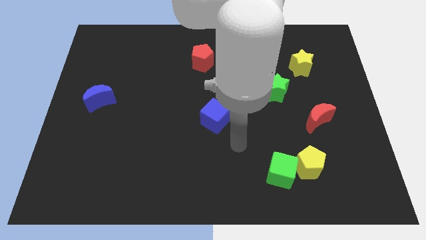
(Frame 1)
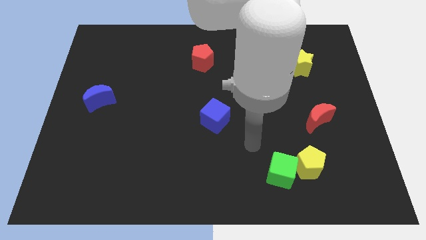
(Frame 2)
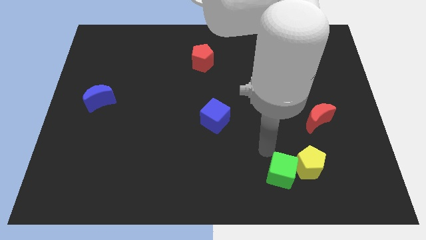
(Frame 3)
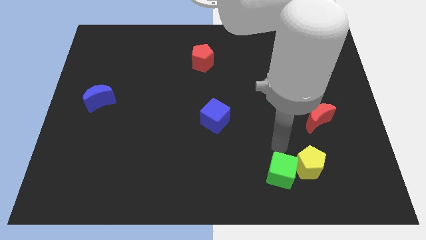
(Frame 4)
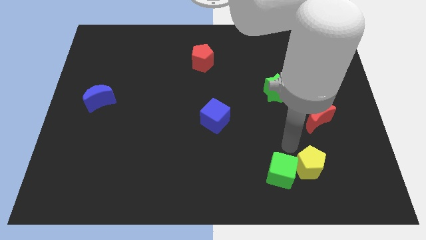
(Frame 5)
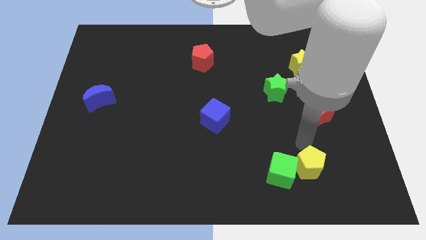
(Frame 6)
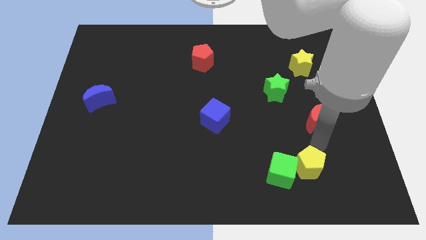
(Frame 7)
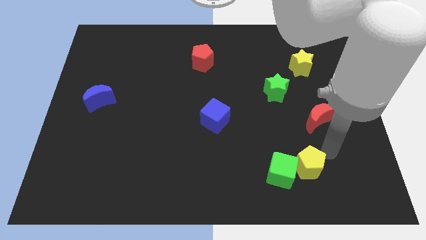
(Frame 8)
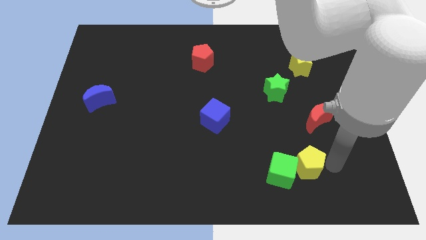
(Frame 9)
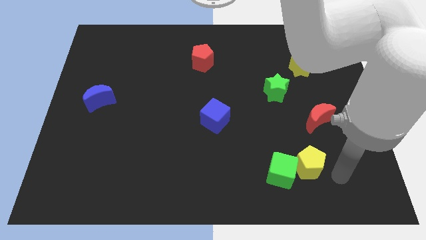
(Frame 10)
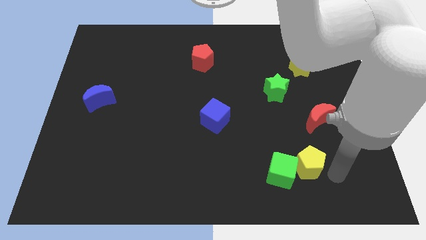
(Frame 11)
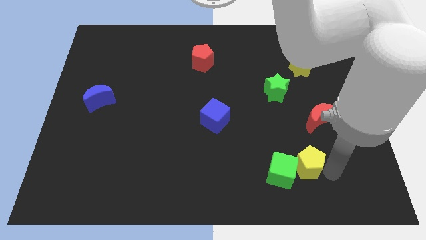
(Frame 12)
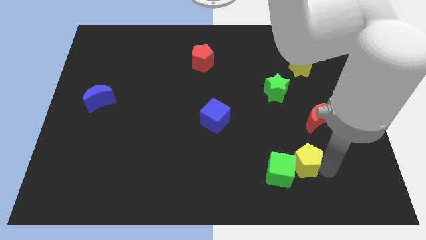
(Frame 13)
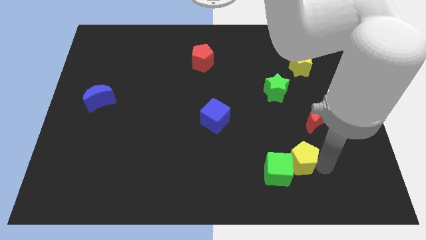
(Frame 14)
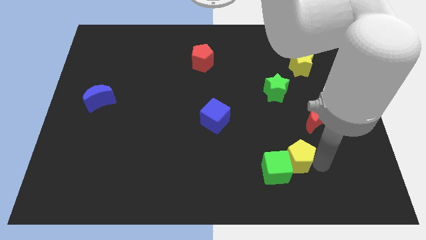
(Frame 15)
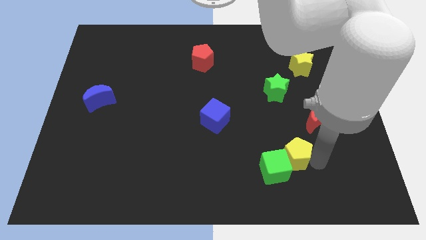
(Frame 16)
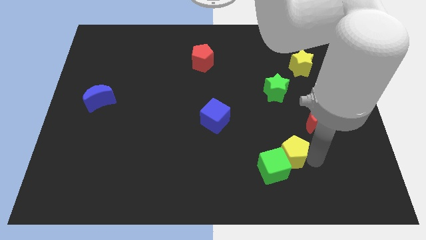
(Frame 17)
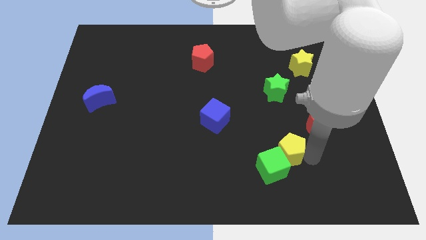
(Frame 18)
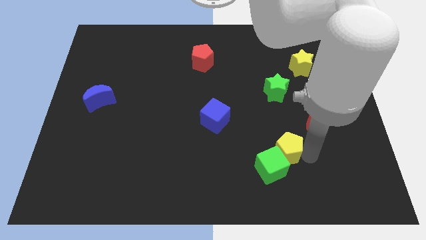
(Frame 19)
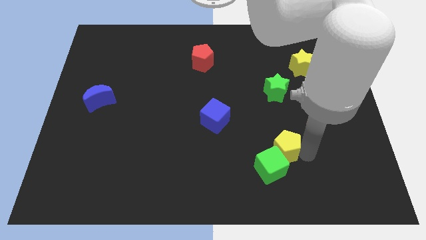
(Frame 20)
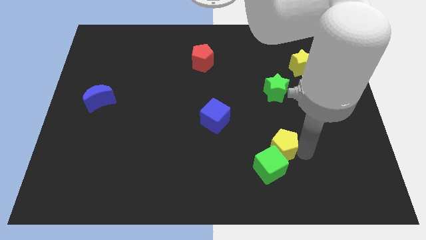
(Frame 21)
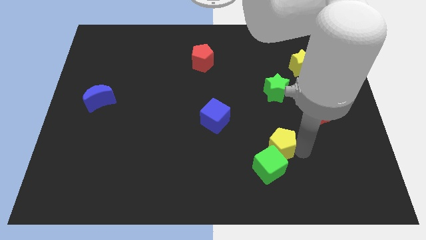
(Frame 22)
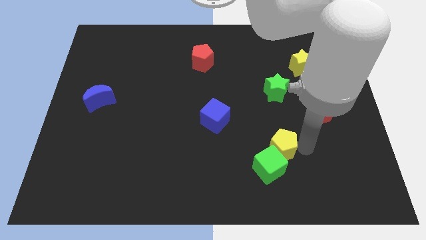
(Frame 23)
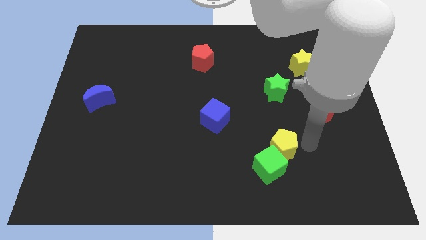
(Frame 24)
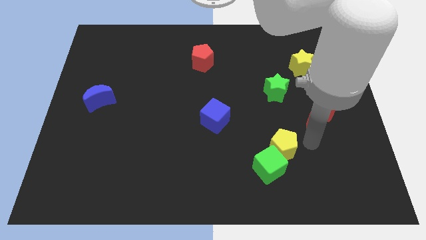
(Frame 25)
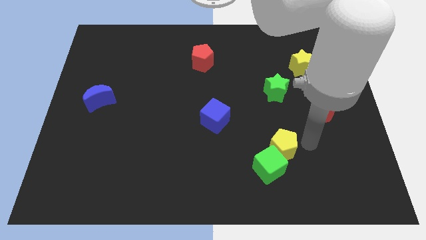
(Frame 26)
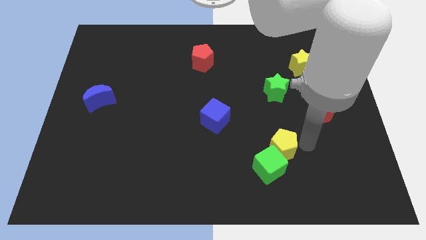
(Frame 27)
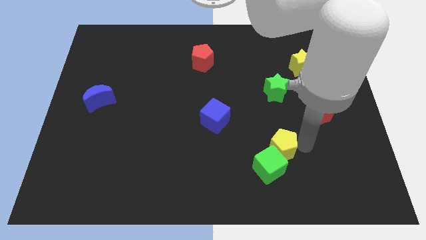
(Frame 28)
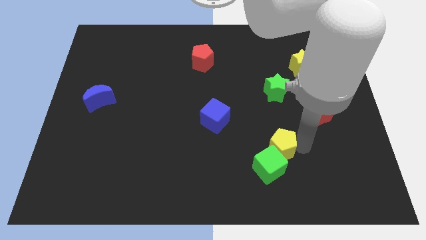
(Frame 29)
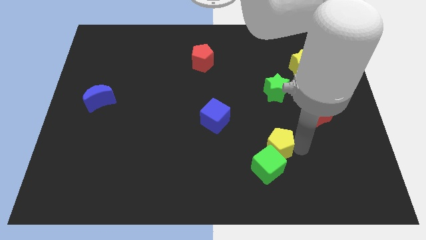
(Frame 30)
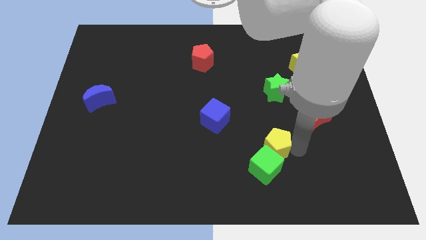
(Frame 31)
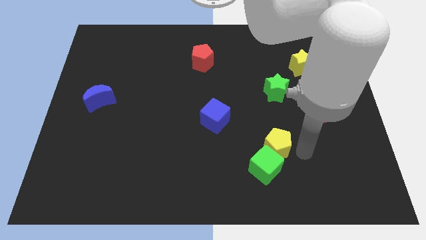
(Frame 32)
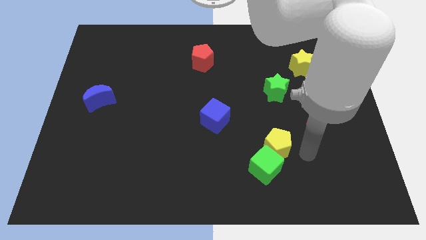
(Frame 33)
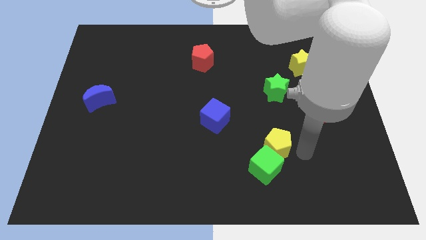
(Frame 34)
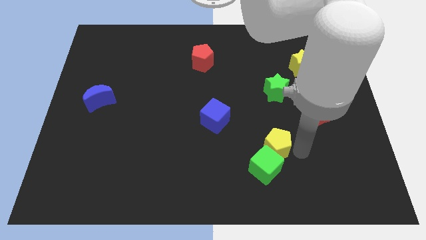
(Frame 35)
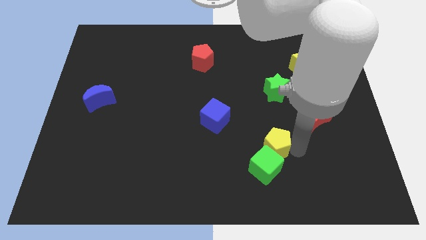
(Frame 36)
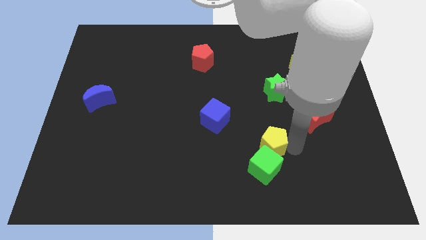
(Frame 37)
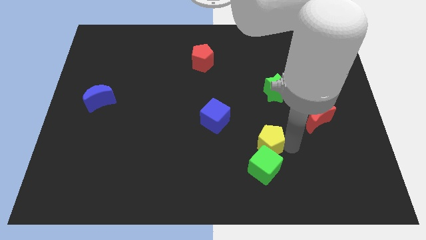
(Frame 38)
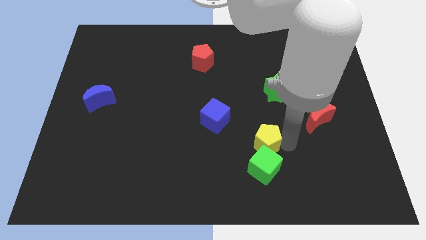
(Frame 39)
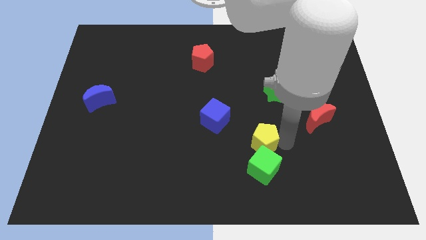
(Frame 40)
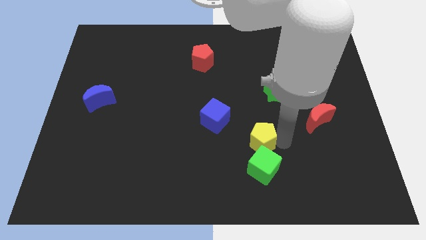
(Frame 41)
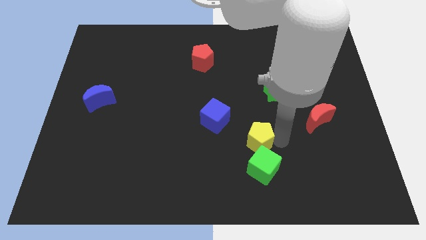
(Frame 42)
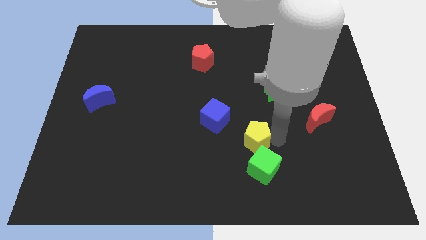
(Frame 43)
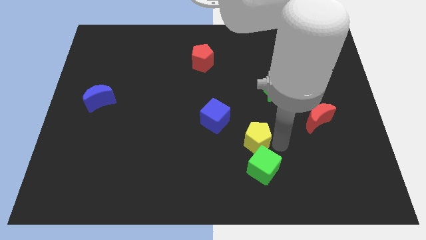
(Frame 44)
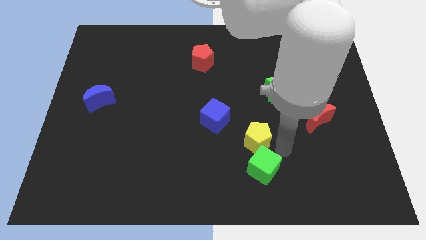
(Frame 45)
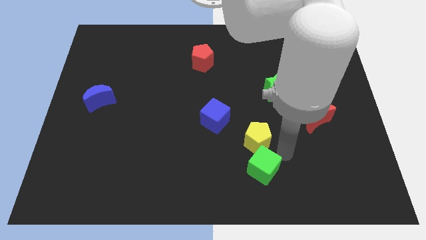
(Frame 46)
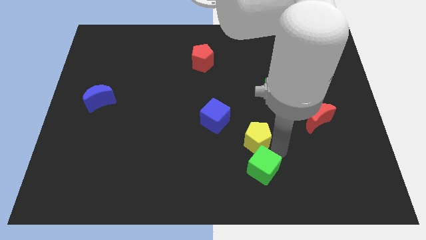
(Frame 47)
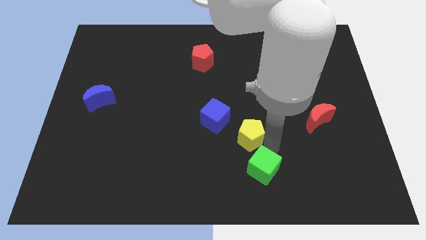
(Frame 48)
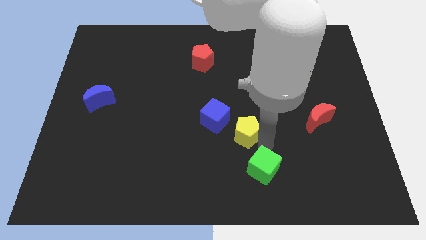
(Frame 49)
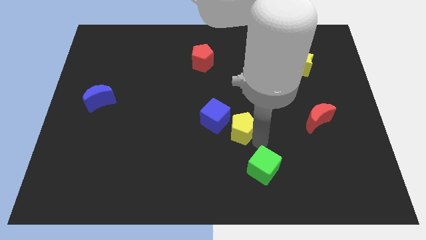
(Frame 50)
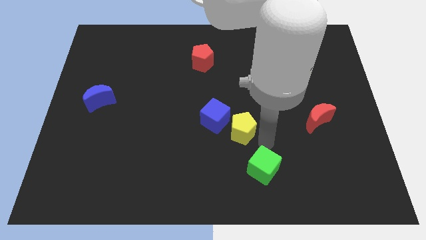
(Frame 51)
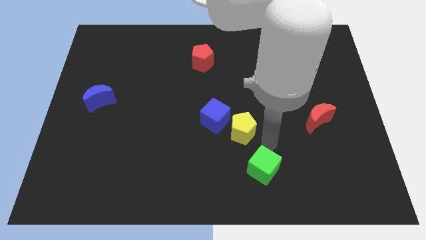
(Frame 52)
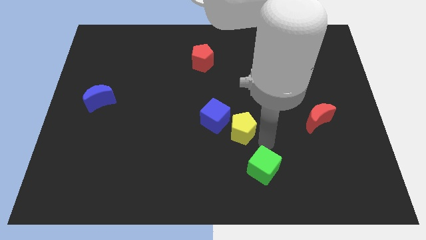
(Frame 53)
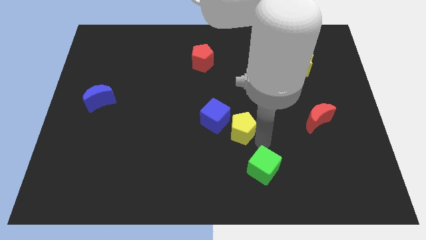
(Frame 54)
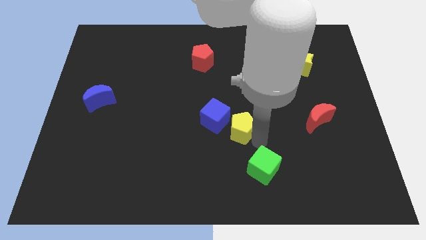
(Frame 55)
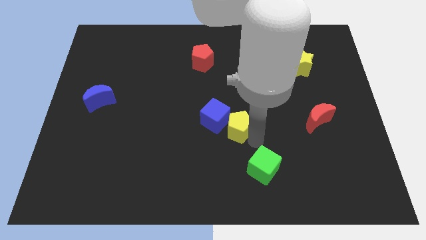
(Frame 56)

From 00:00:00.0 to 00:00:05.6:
move the yellow pentagon close to the blue cube

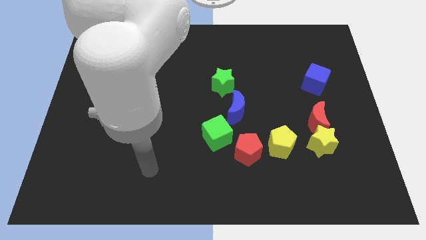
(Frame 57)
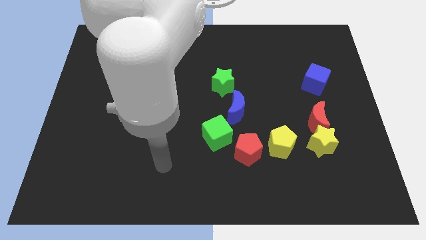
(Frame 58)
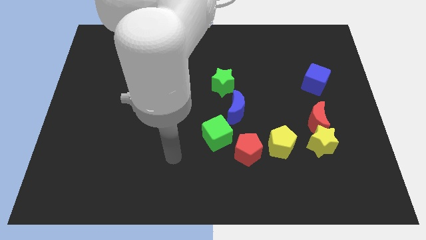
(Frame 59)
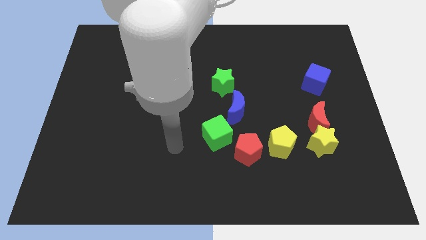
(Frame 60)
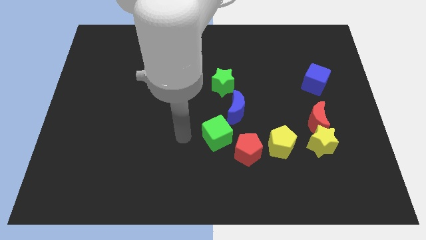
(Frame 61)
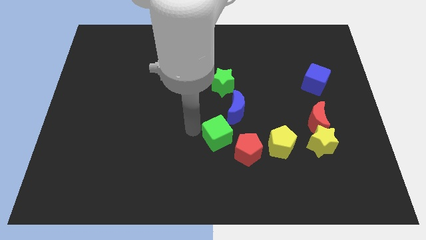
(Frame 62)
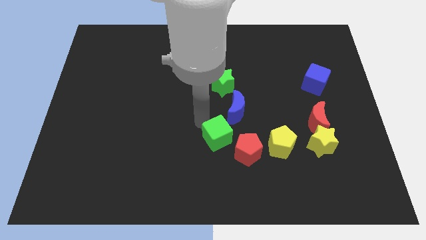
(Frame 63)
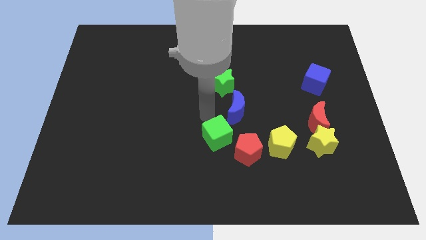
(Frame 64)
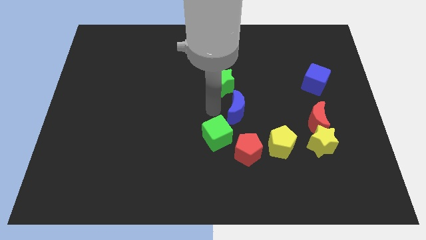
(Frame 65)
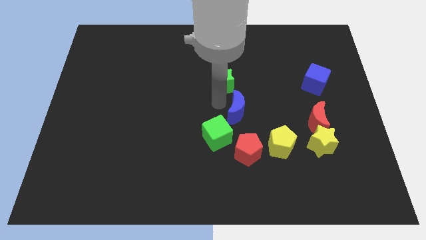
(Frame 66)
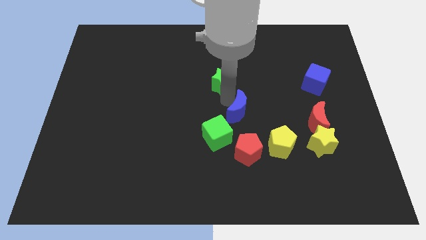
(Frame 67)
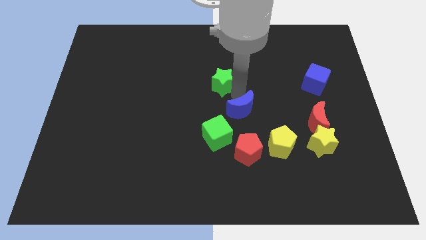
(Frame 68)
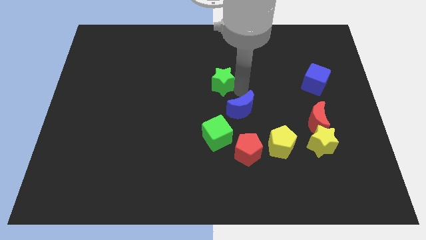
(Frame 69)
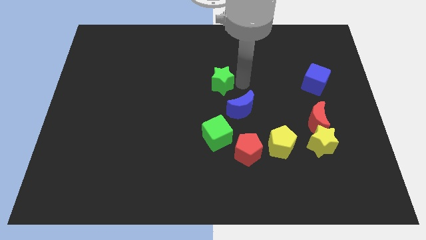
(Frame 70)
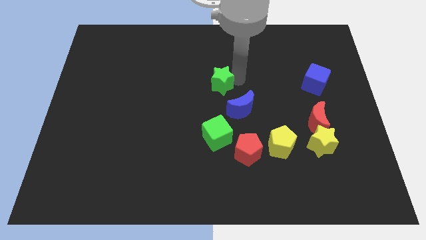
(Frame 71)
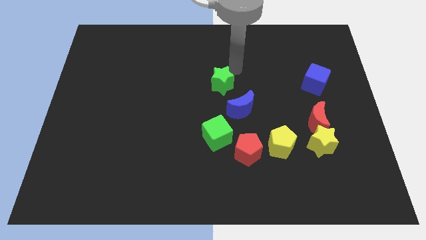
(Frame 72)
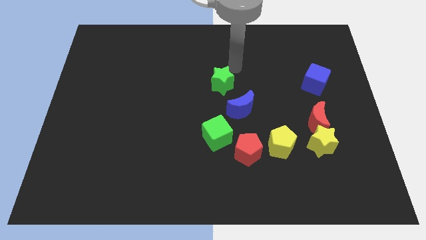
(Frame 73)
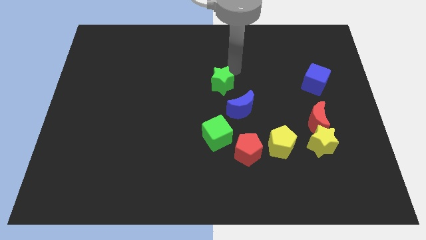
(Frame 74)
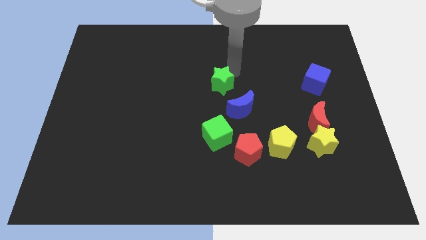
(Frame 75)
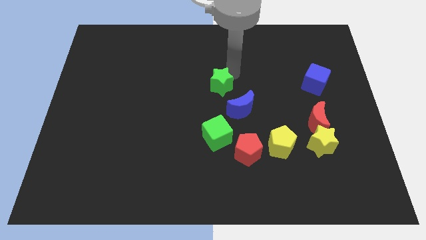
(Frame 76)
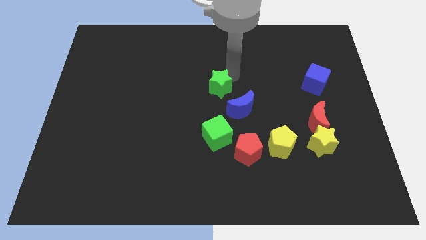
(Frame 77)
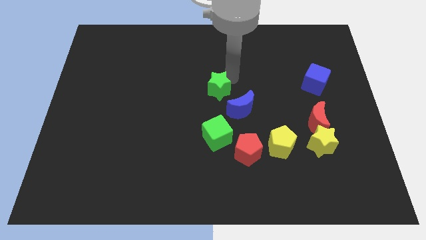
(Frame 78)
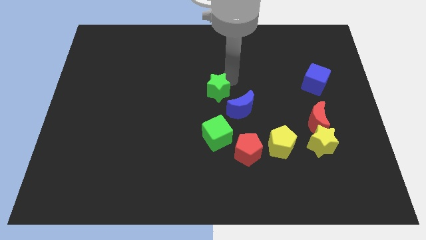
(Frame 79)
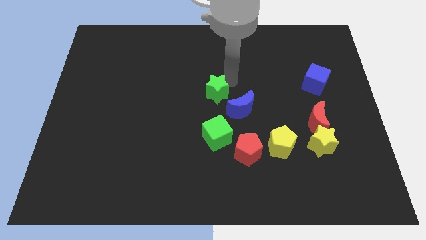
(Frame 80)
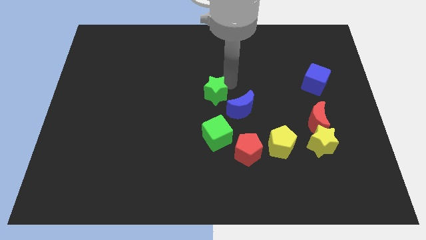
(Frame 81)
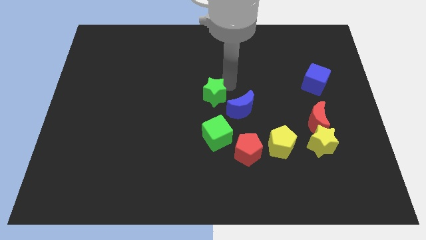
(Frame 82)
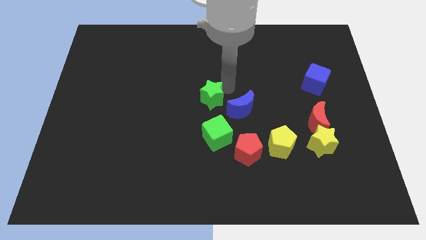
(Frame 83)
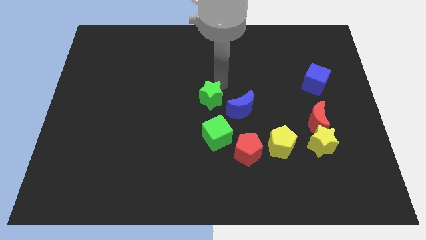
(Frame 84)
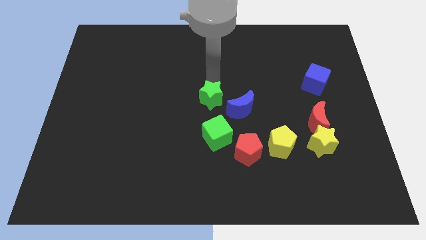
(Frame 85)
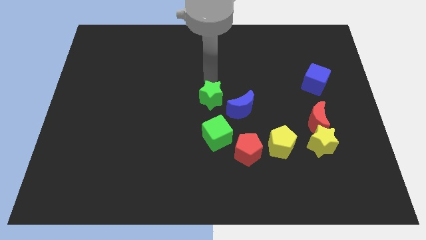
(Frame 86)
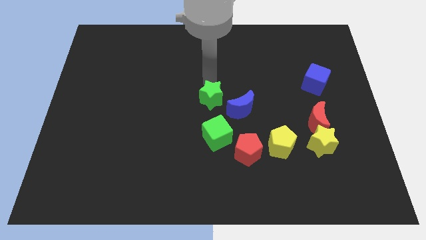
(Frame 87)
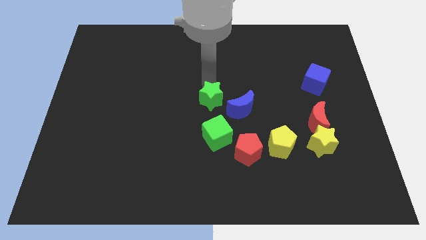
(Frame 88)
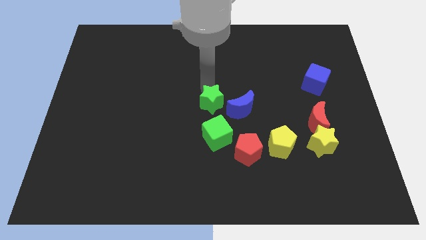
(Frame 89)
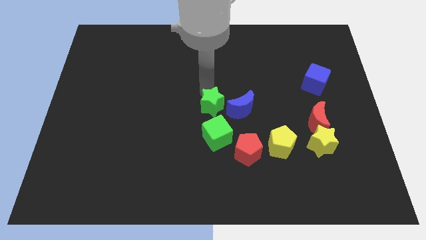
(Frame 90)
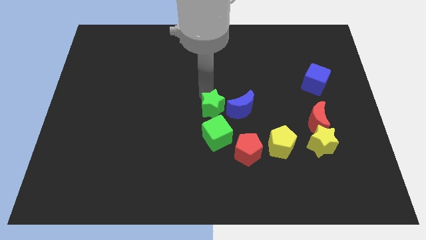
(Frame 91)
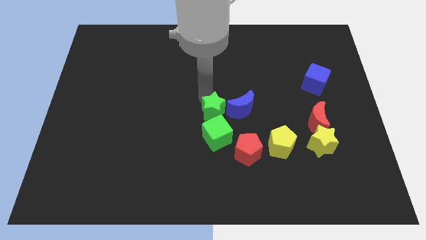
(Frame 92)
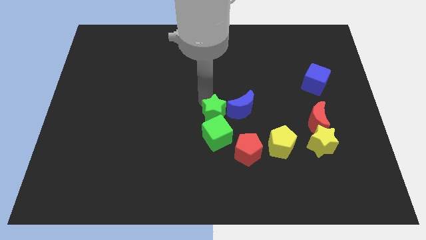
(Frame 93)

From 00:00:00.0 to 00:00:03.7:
move the green star close to the green cube
